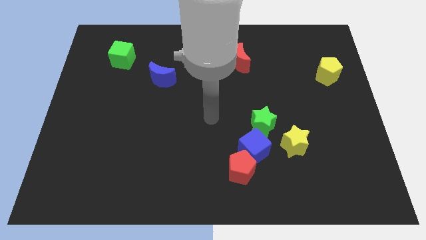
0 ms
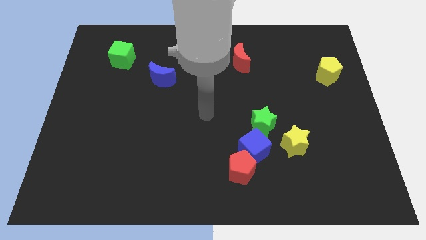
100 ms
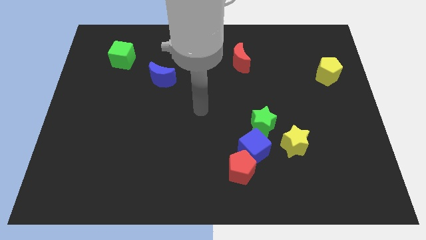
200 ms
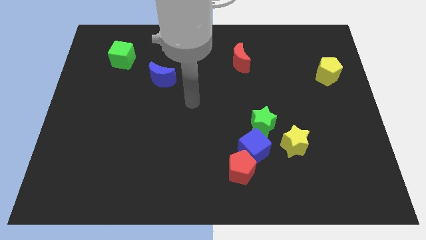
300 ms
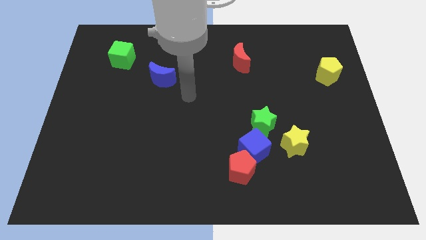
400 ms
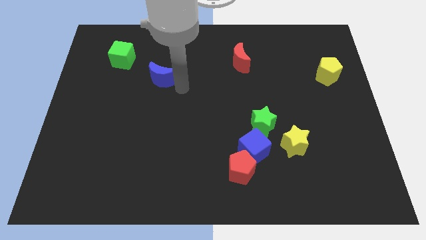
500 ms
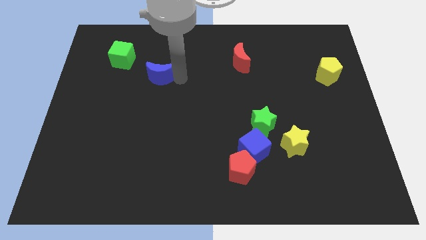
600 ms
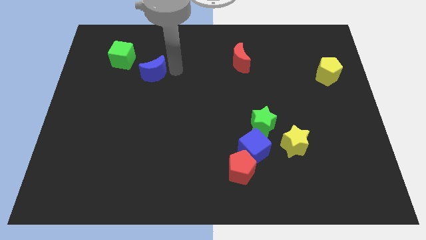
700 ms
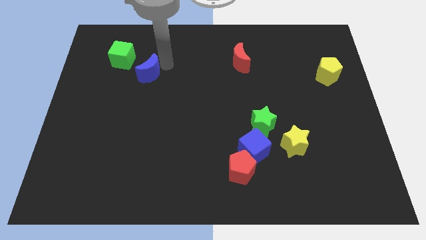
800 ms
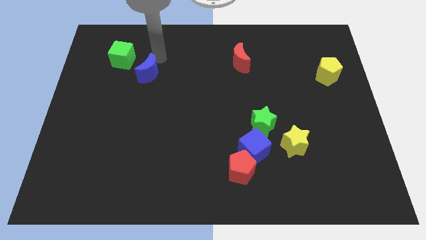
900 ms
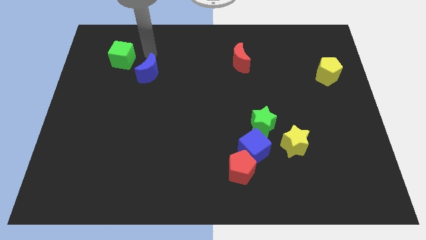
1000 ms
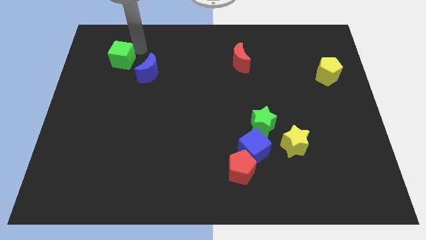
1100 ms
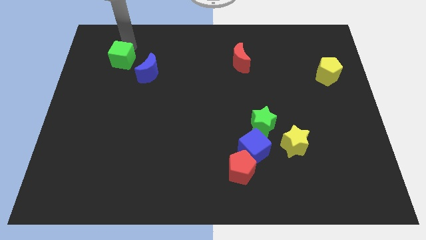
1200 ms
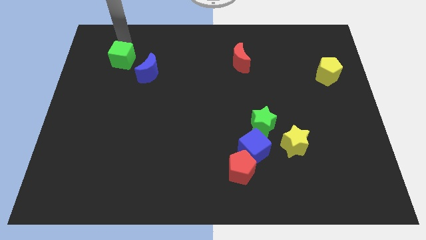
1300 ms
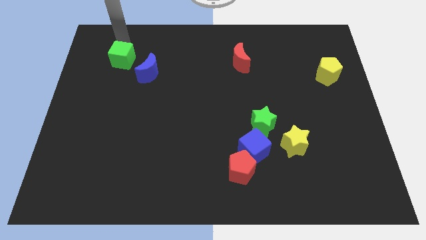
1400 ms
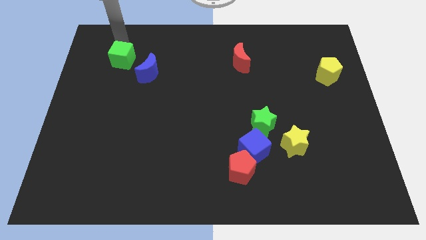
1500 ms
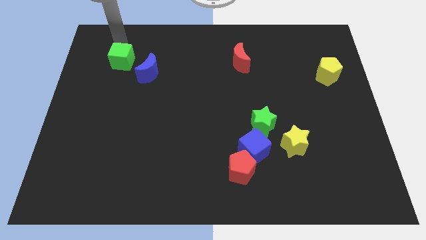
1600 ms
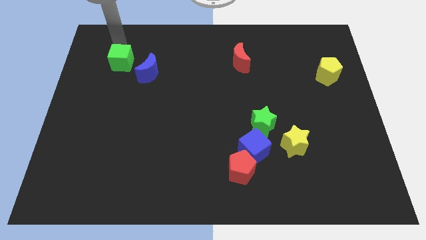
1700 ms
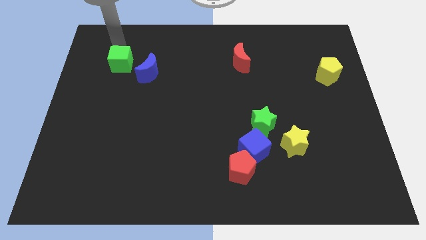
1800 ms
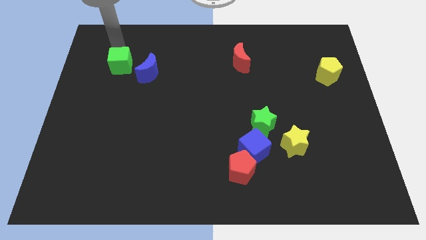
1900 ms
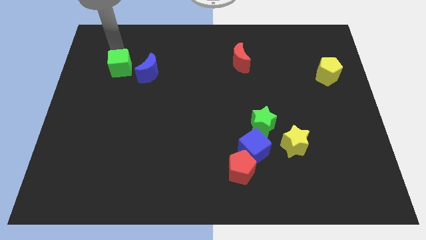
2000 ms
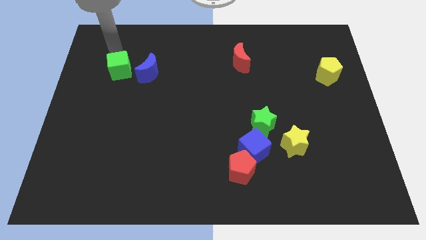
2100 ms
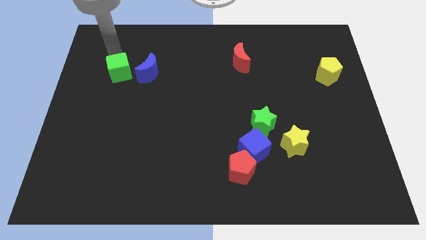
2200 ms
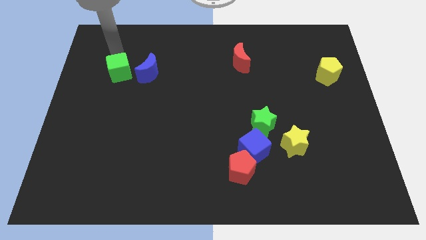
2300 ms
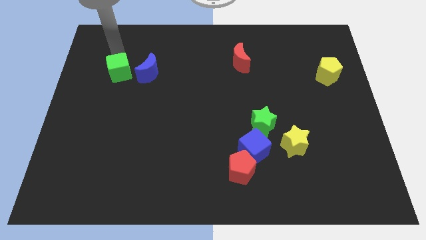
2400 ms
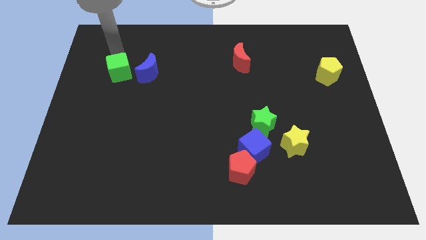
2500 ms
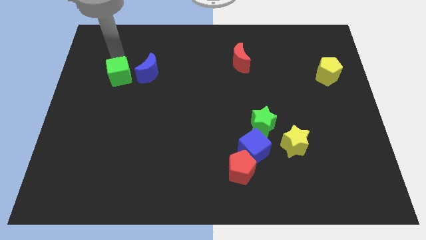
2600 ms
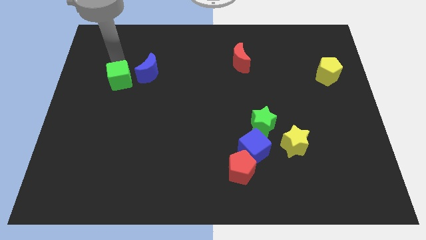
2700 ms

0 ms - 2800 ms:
slide the green cube down slightly

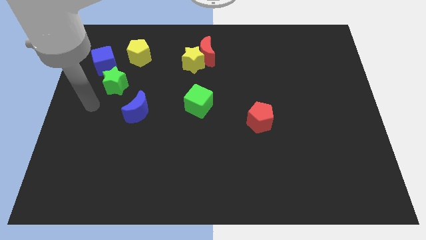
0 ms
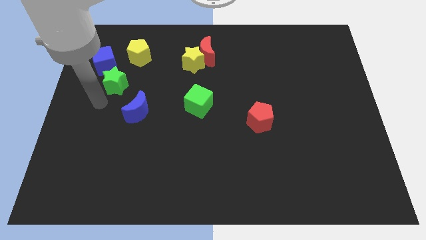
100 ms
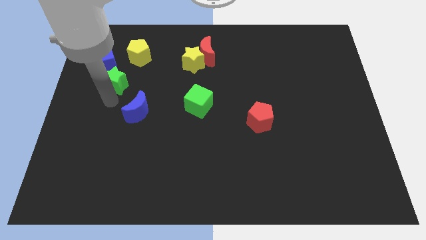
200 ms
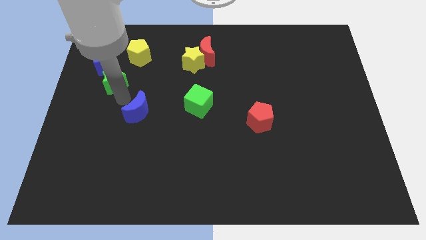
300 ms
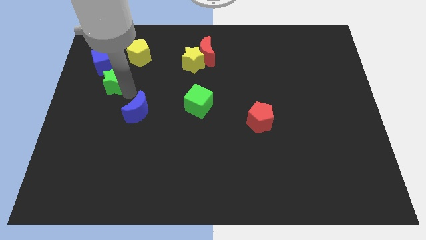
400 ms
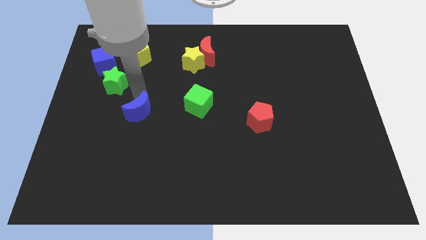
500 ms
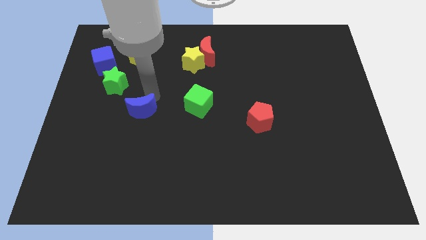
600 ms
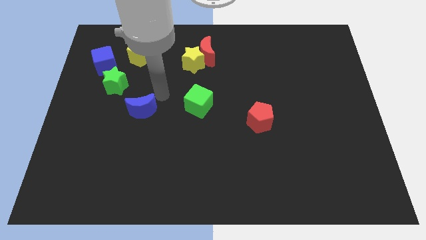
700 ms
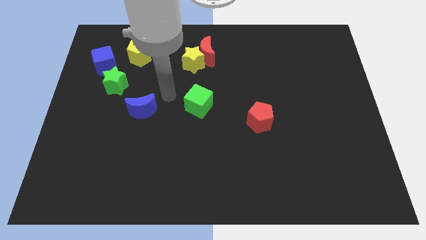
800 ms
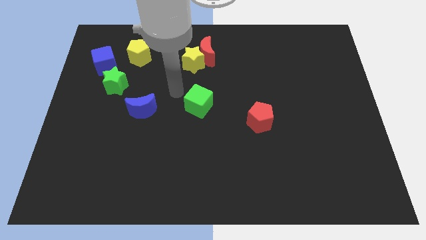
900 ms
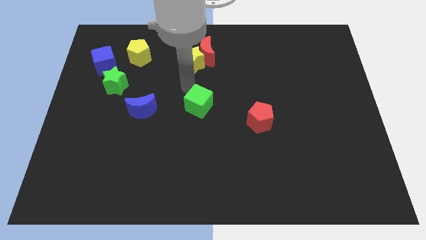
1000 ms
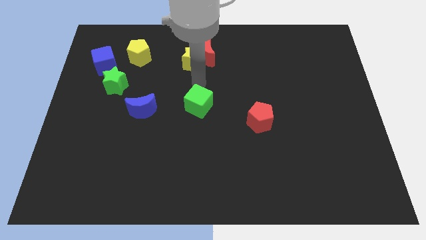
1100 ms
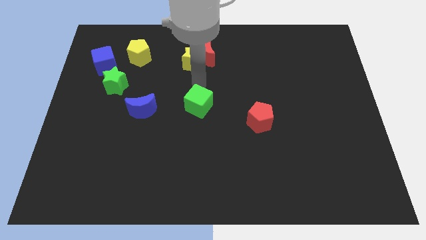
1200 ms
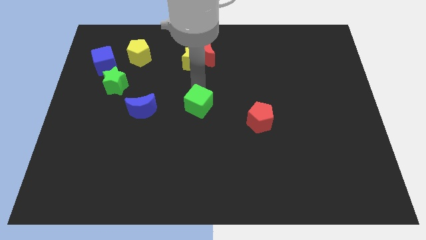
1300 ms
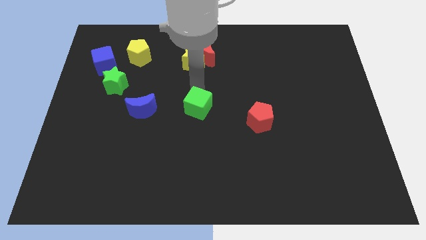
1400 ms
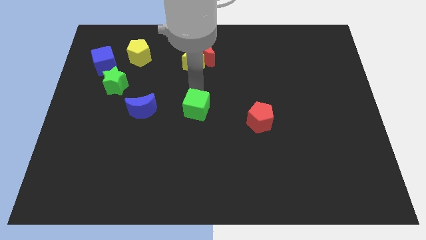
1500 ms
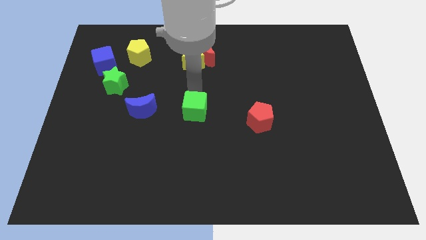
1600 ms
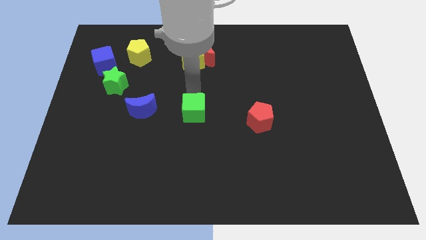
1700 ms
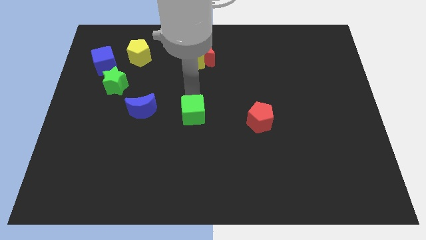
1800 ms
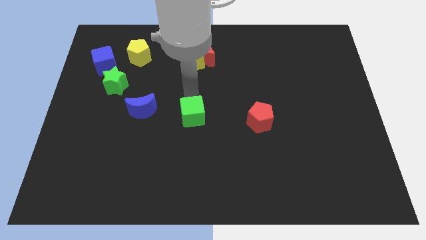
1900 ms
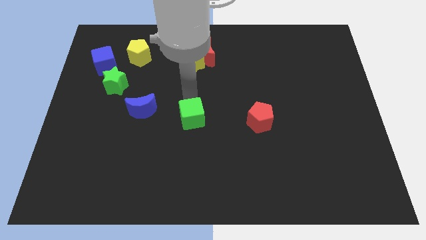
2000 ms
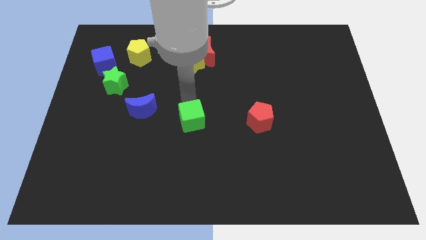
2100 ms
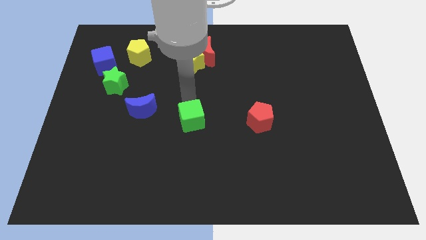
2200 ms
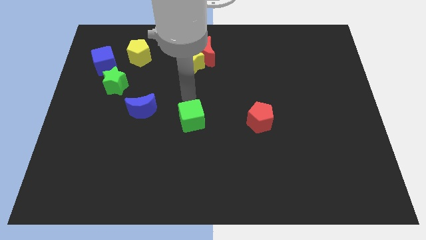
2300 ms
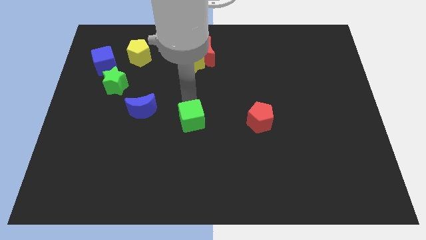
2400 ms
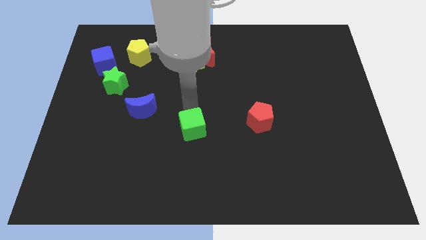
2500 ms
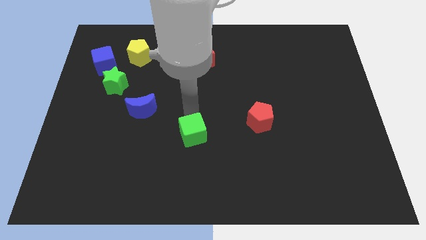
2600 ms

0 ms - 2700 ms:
push the green cube down a little bit

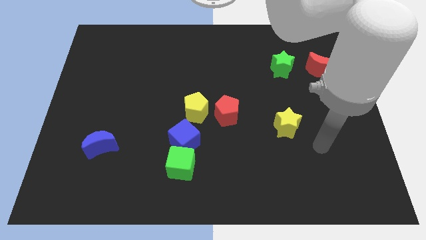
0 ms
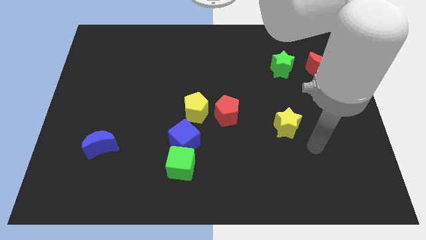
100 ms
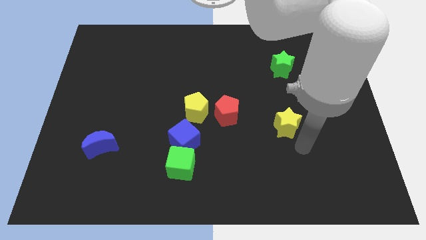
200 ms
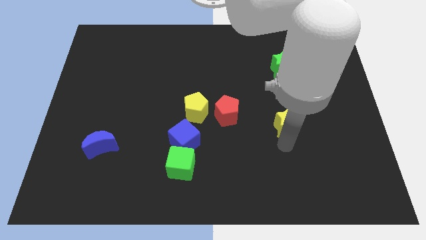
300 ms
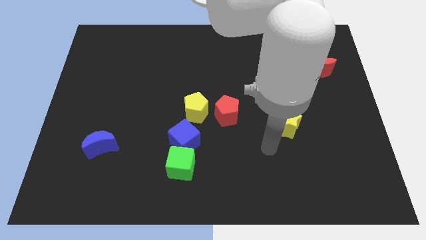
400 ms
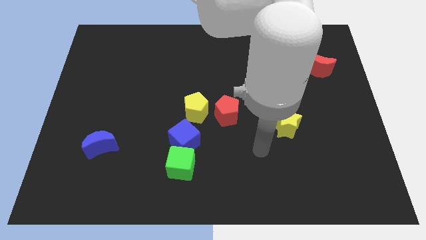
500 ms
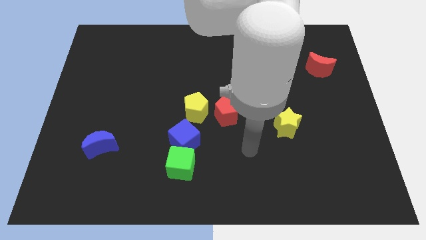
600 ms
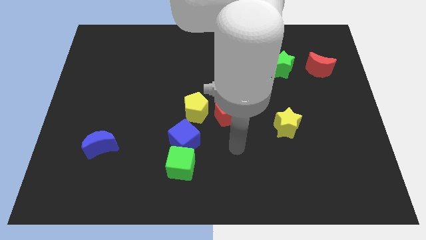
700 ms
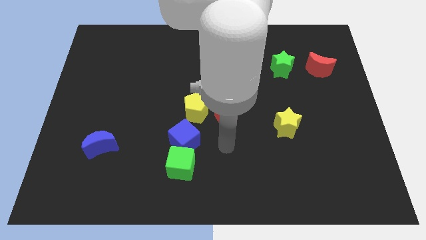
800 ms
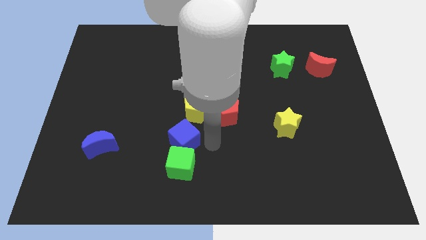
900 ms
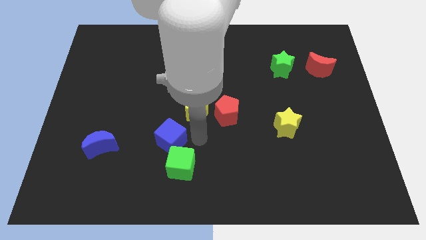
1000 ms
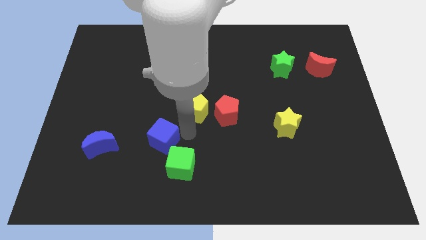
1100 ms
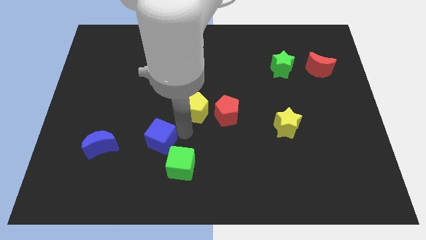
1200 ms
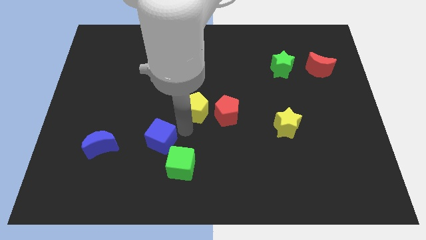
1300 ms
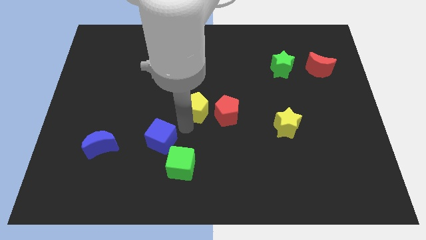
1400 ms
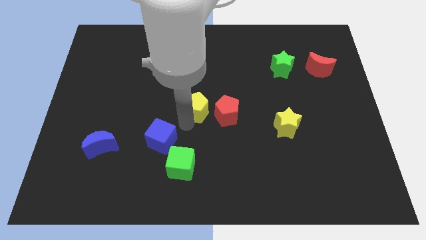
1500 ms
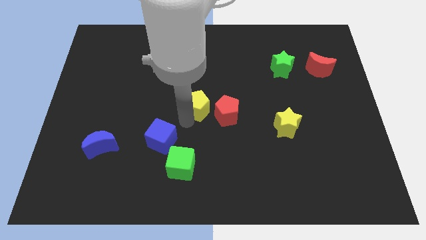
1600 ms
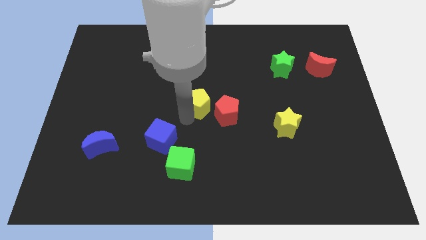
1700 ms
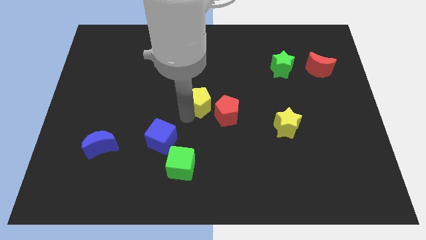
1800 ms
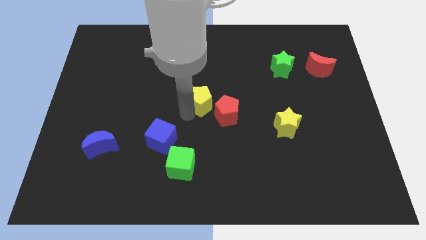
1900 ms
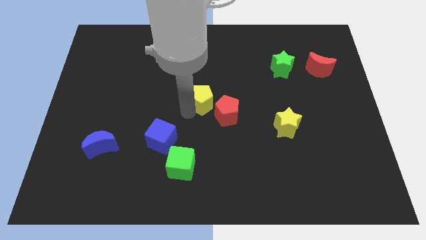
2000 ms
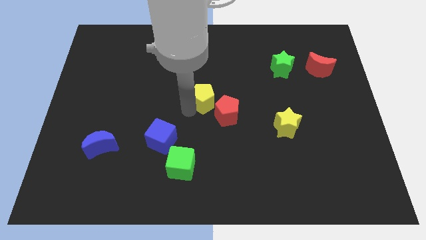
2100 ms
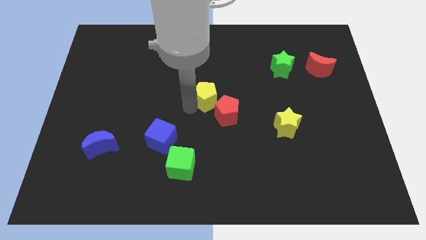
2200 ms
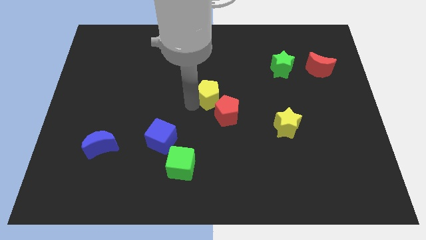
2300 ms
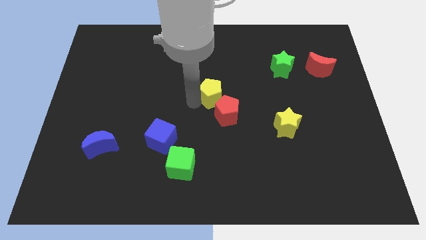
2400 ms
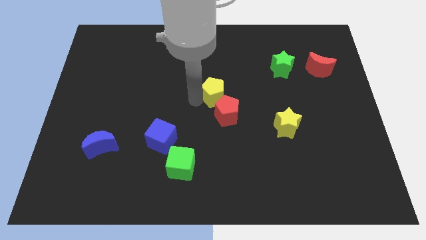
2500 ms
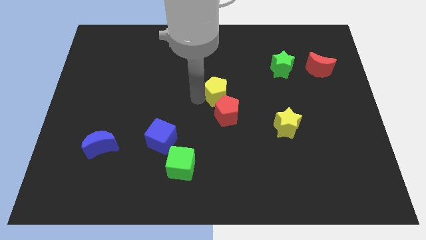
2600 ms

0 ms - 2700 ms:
slide the yellow pentagon a little up and then right
